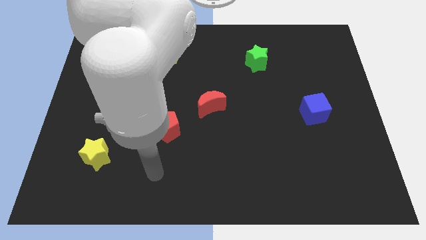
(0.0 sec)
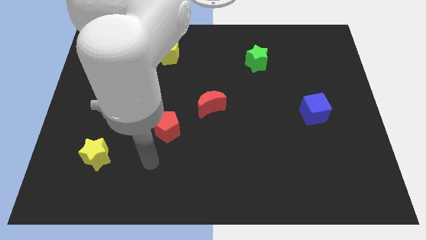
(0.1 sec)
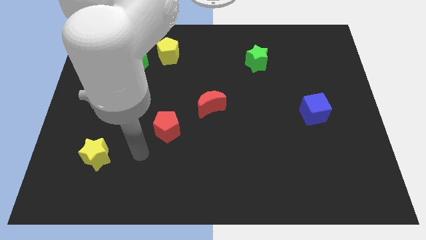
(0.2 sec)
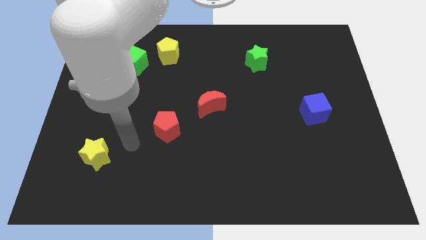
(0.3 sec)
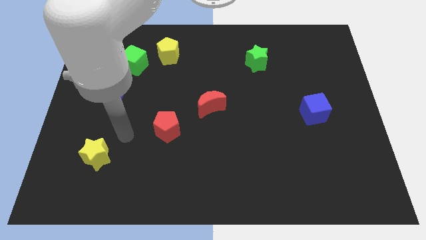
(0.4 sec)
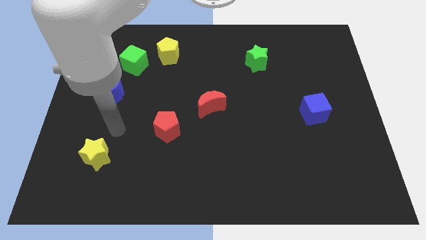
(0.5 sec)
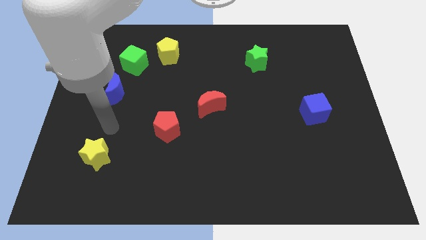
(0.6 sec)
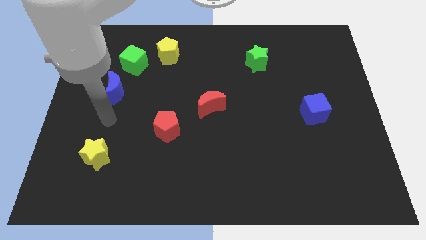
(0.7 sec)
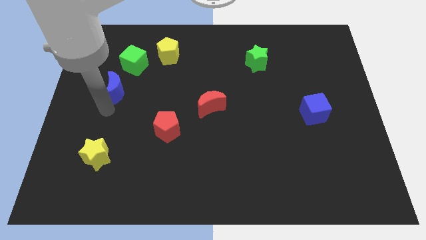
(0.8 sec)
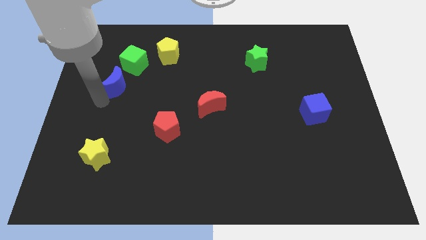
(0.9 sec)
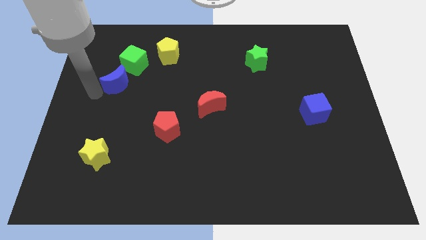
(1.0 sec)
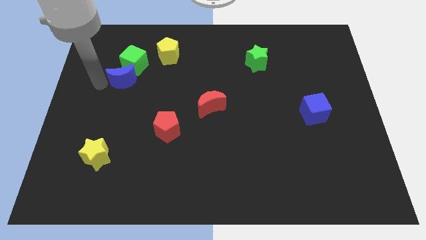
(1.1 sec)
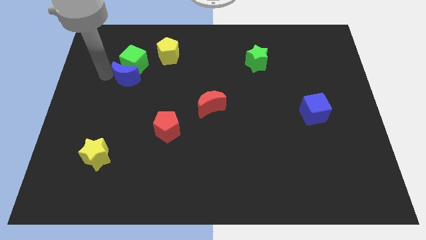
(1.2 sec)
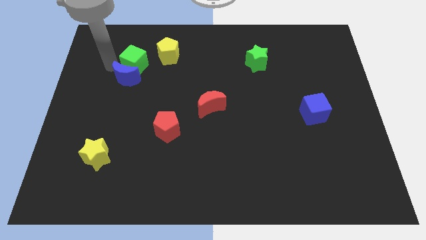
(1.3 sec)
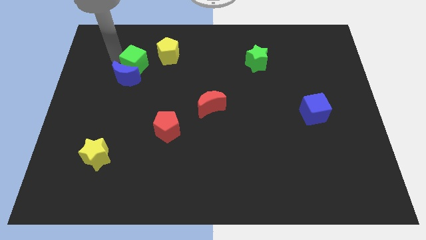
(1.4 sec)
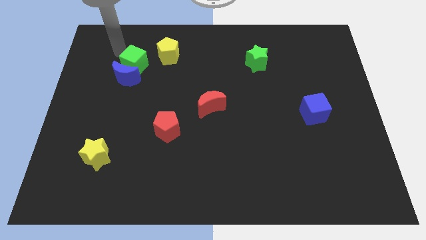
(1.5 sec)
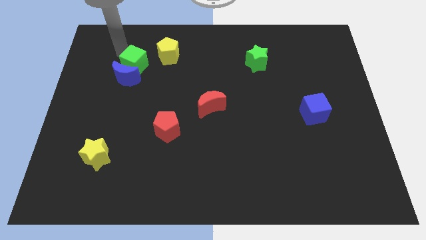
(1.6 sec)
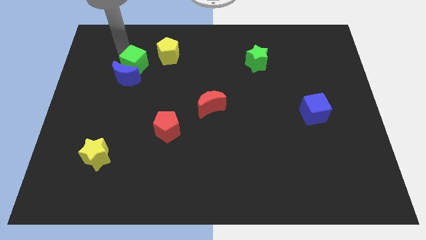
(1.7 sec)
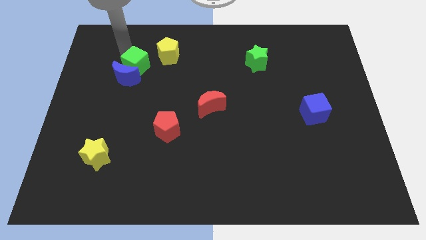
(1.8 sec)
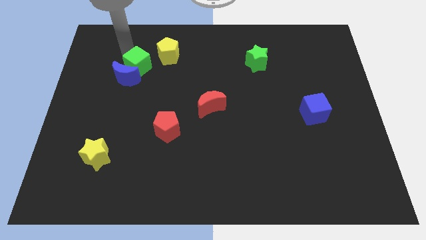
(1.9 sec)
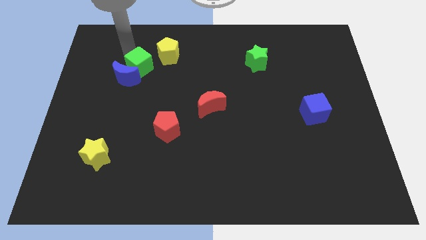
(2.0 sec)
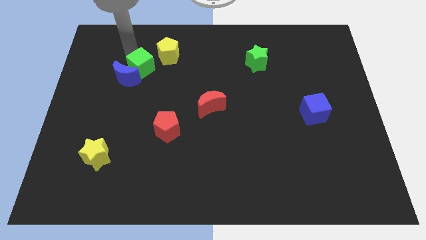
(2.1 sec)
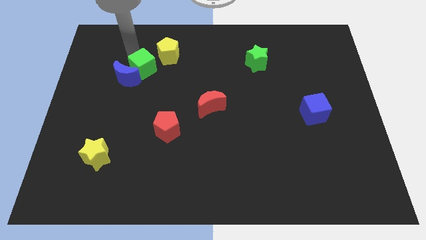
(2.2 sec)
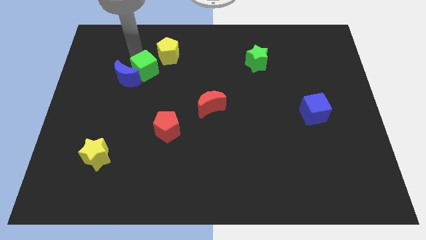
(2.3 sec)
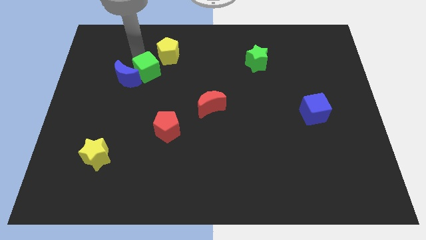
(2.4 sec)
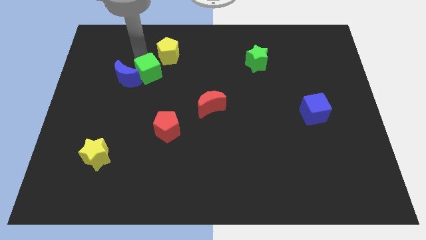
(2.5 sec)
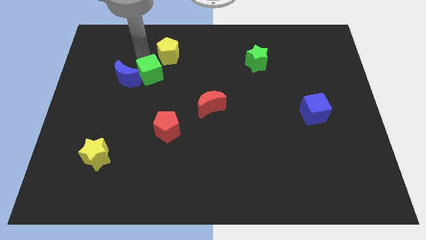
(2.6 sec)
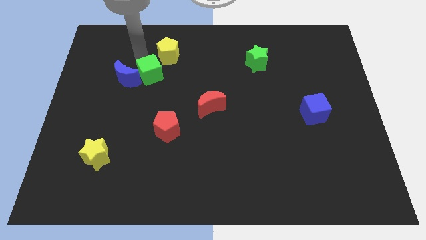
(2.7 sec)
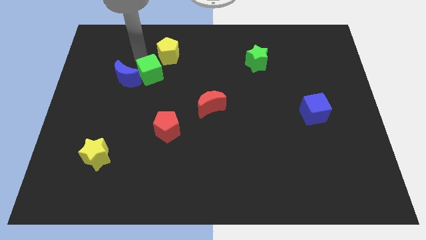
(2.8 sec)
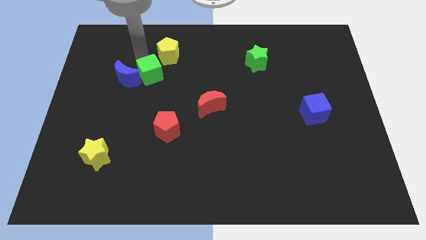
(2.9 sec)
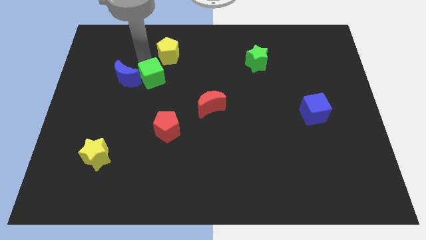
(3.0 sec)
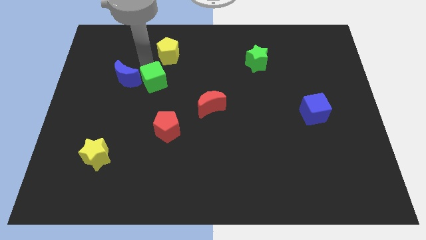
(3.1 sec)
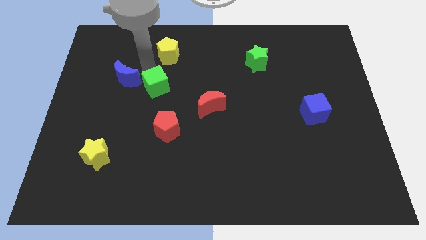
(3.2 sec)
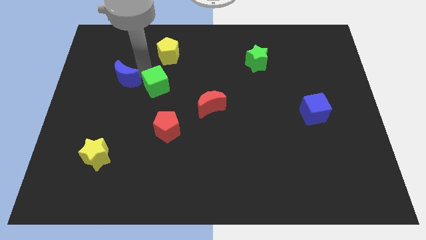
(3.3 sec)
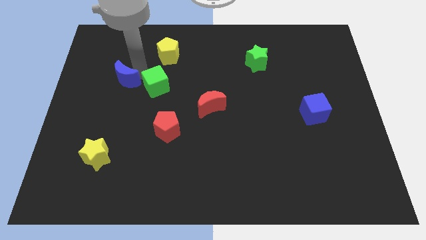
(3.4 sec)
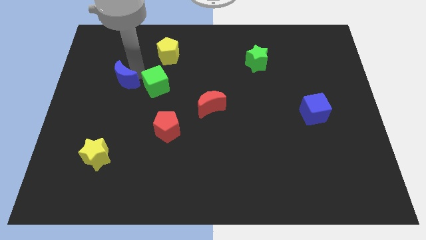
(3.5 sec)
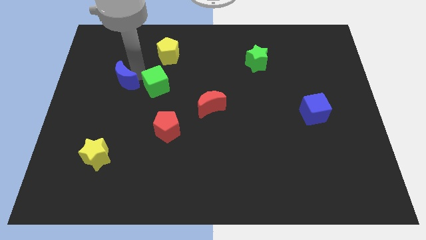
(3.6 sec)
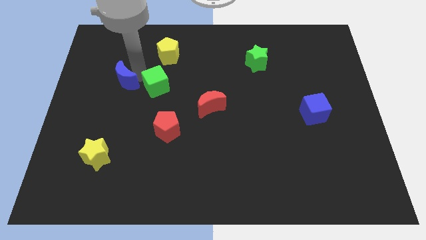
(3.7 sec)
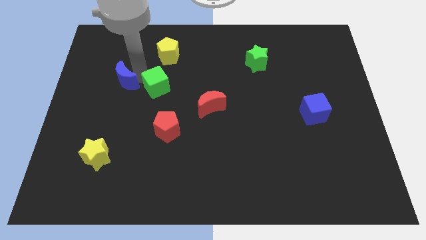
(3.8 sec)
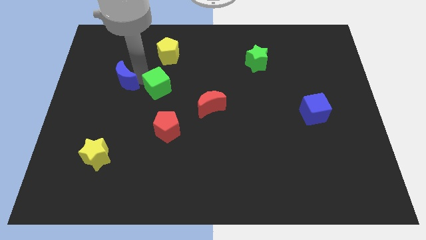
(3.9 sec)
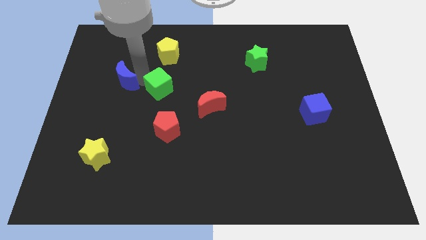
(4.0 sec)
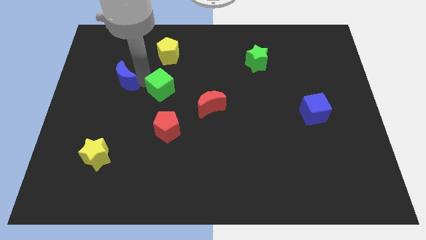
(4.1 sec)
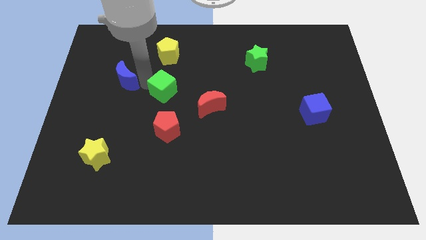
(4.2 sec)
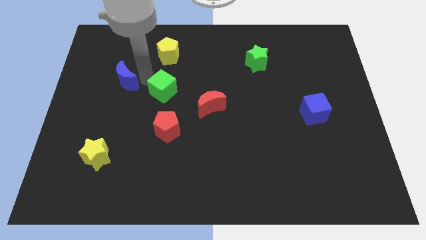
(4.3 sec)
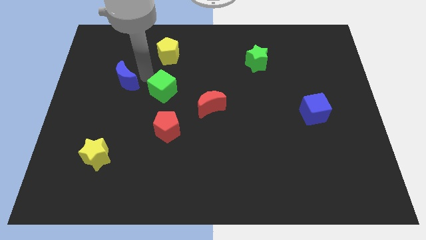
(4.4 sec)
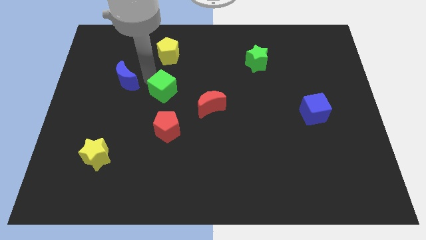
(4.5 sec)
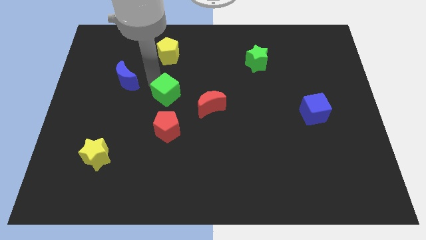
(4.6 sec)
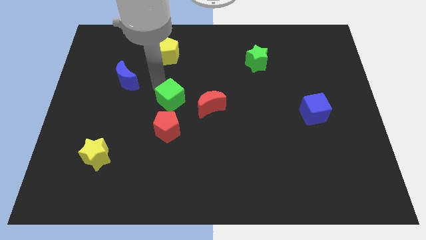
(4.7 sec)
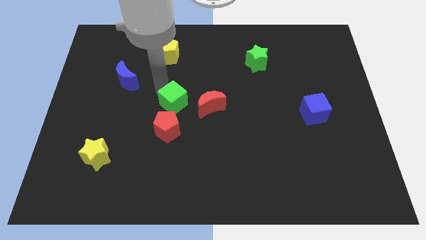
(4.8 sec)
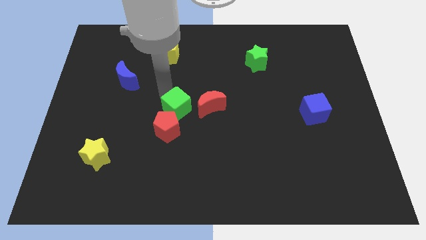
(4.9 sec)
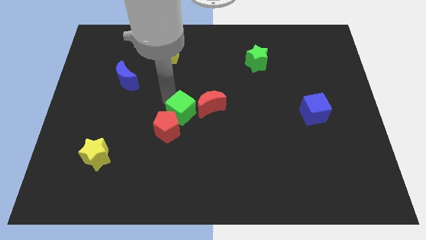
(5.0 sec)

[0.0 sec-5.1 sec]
slide the green cube down and then to the right

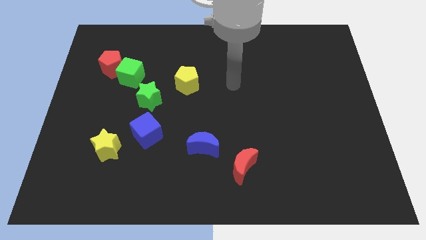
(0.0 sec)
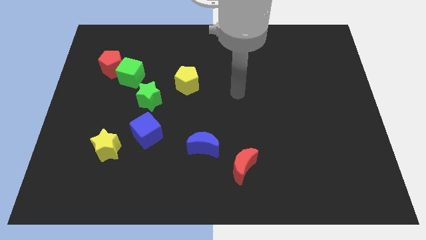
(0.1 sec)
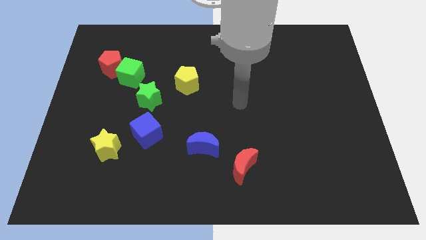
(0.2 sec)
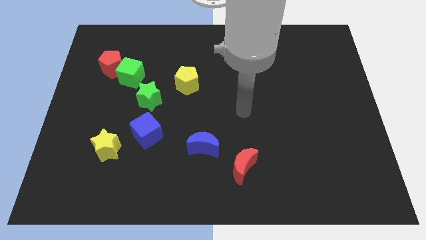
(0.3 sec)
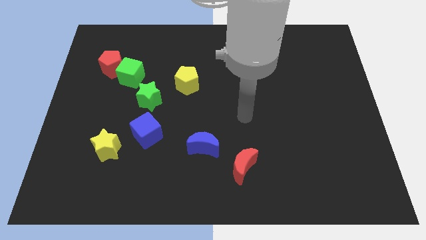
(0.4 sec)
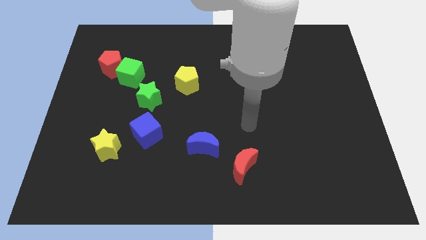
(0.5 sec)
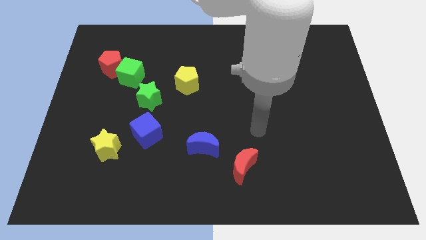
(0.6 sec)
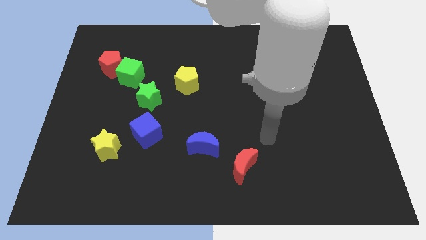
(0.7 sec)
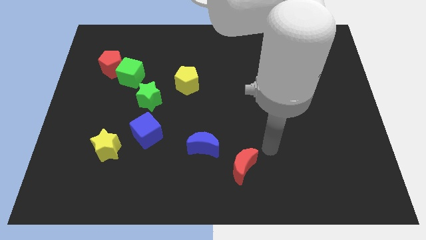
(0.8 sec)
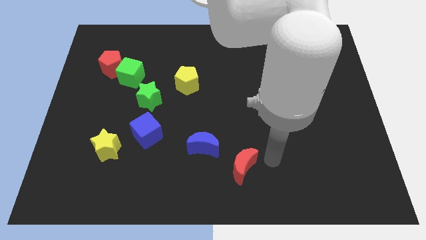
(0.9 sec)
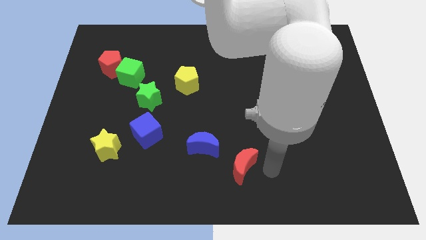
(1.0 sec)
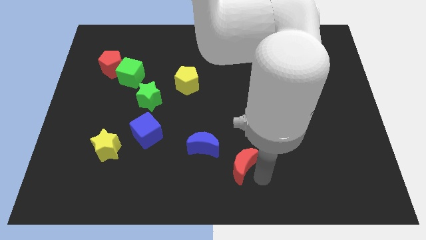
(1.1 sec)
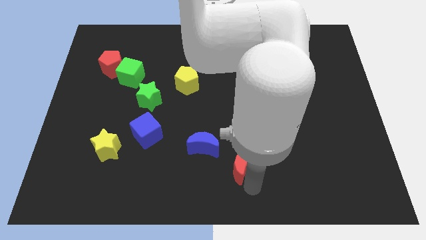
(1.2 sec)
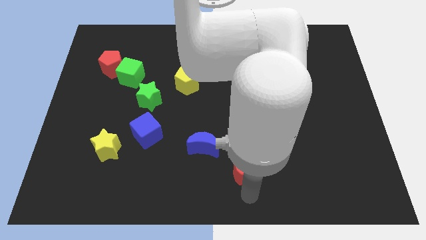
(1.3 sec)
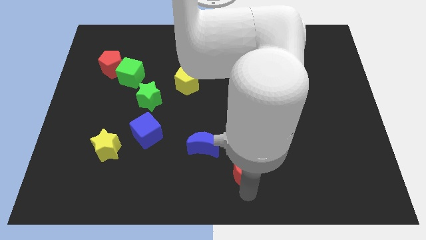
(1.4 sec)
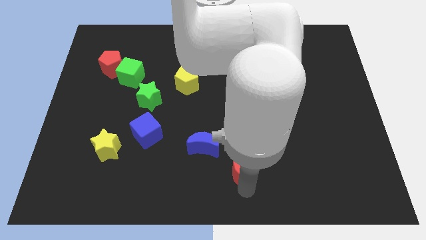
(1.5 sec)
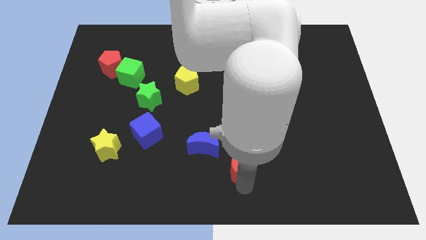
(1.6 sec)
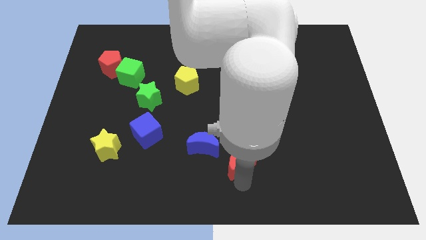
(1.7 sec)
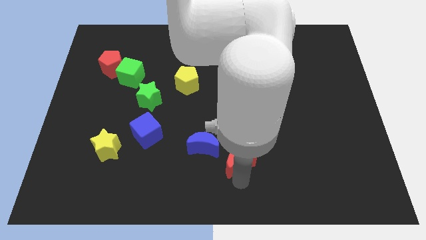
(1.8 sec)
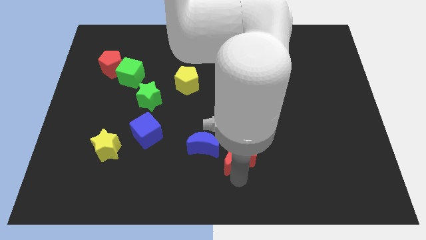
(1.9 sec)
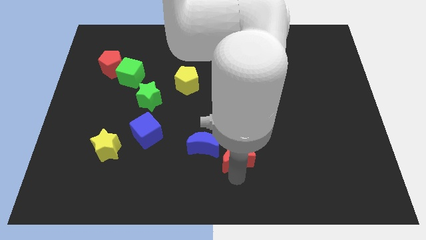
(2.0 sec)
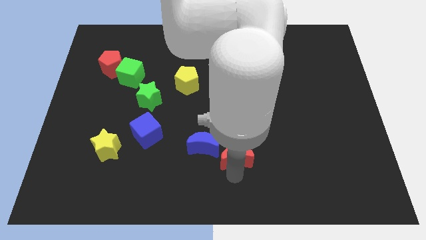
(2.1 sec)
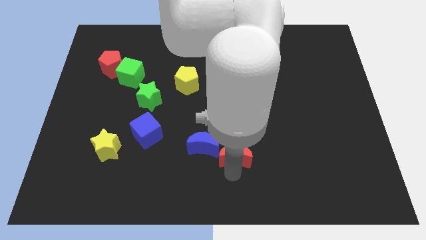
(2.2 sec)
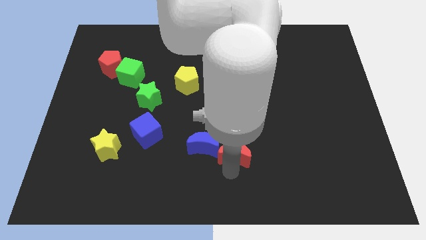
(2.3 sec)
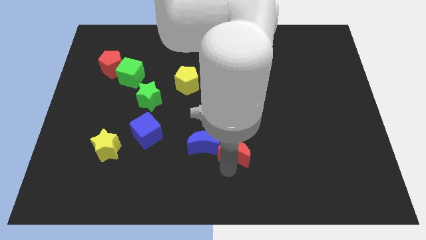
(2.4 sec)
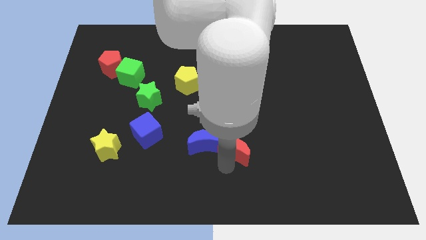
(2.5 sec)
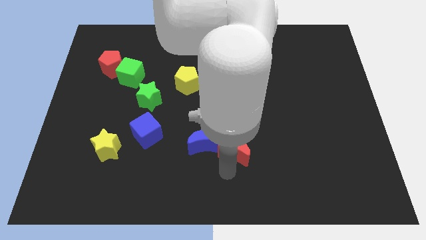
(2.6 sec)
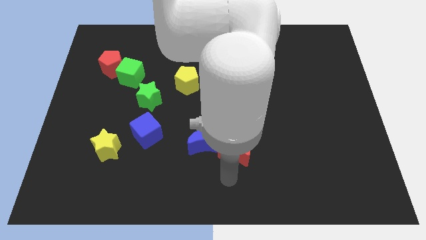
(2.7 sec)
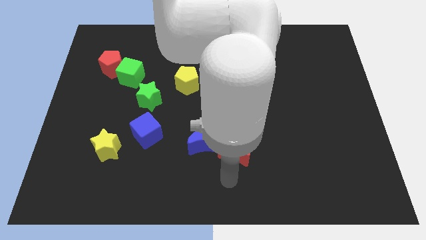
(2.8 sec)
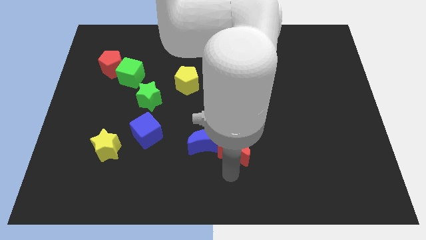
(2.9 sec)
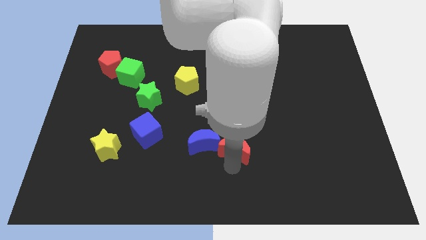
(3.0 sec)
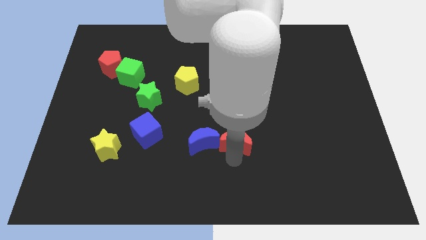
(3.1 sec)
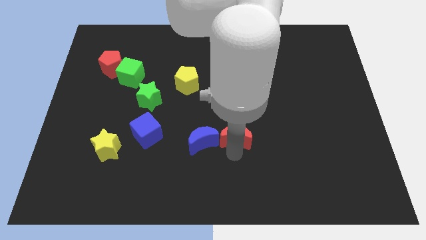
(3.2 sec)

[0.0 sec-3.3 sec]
push the red moon somewhat up
